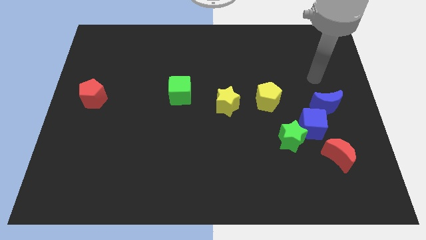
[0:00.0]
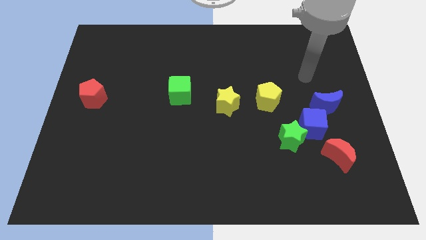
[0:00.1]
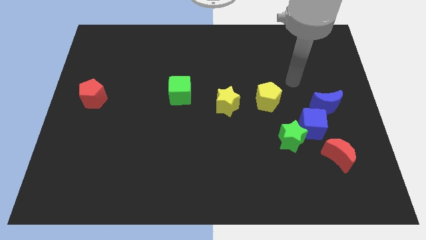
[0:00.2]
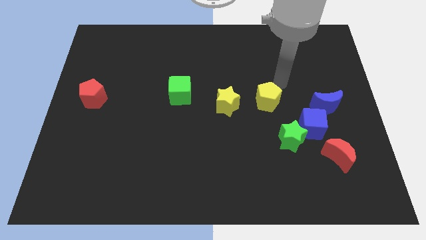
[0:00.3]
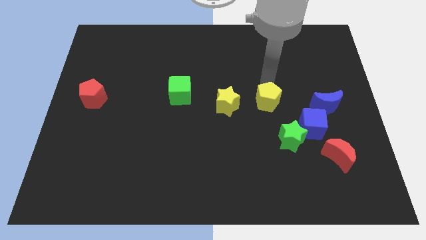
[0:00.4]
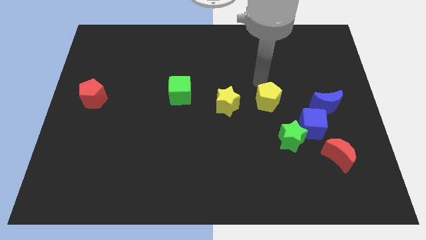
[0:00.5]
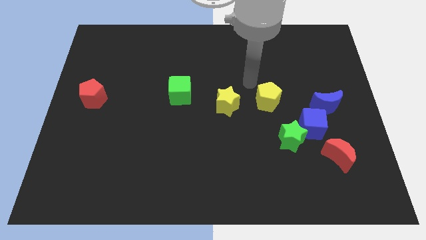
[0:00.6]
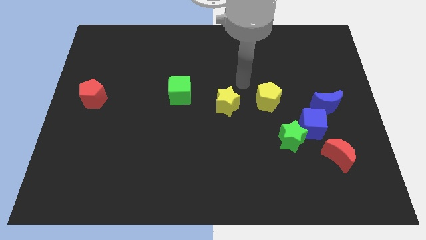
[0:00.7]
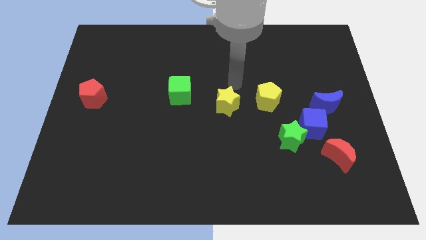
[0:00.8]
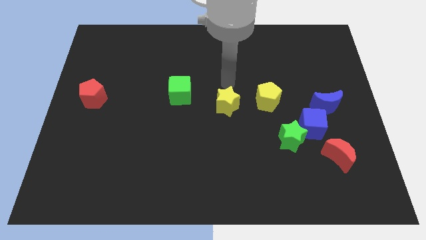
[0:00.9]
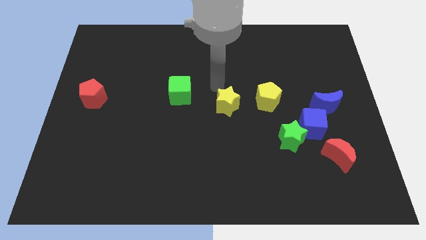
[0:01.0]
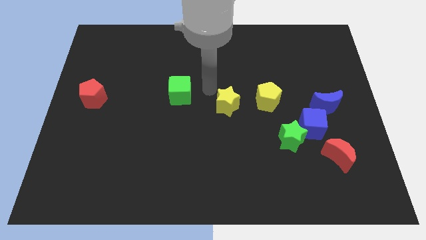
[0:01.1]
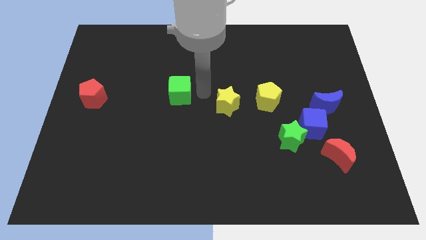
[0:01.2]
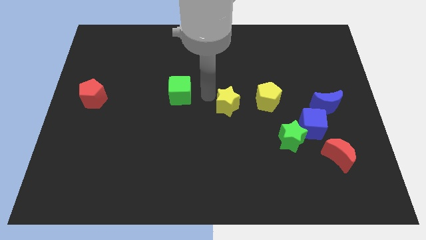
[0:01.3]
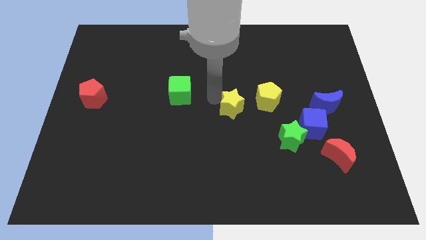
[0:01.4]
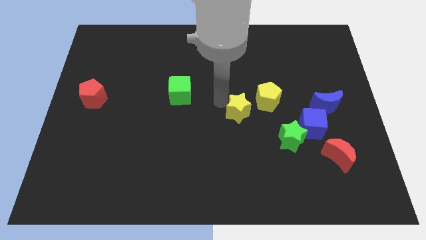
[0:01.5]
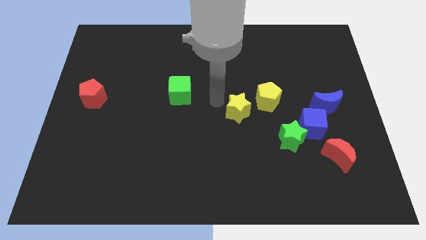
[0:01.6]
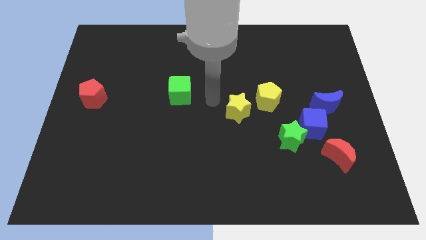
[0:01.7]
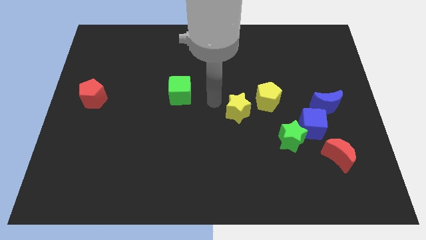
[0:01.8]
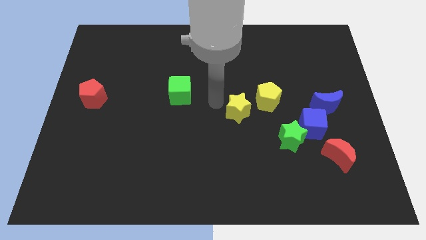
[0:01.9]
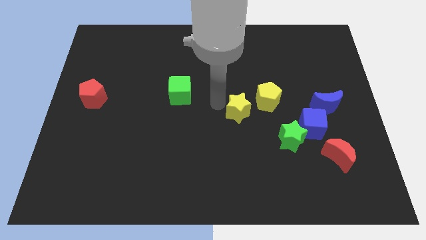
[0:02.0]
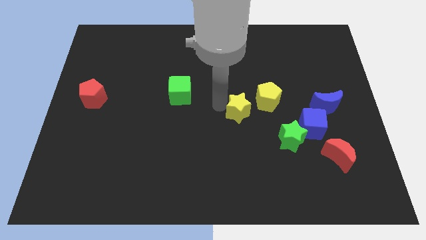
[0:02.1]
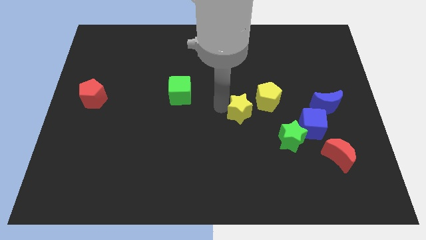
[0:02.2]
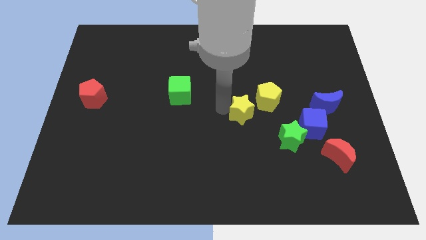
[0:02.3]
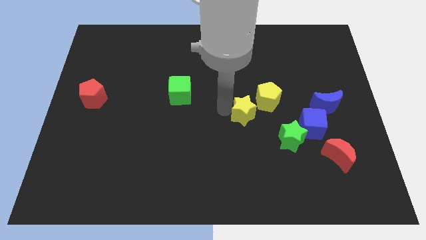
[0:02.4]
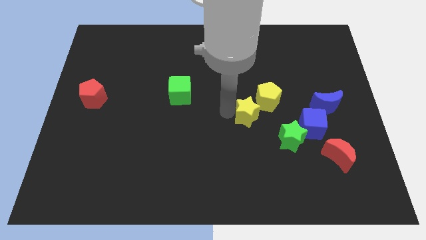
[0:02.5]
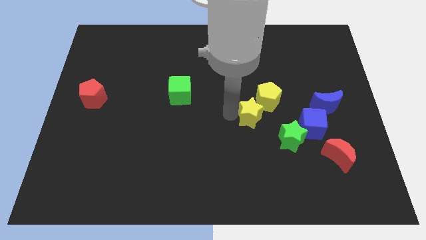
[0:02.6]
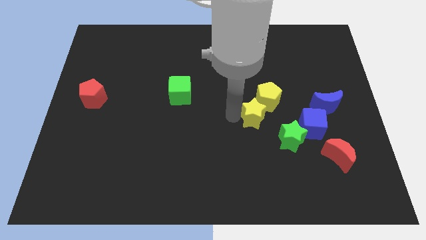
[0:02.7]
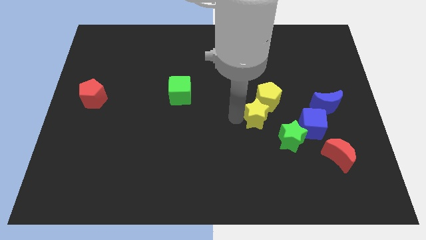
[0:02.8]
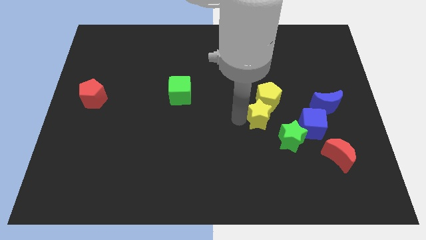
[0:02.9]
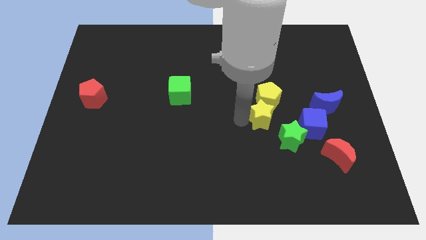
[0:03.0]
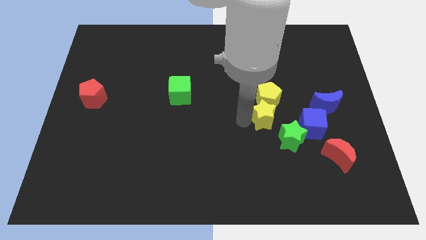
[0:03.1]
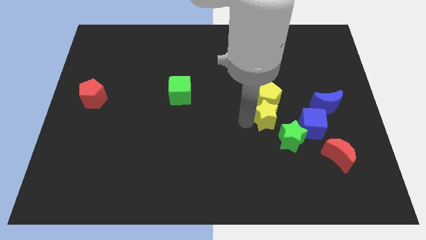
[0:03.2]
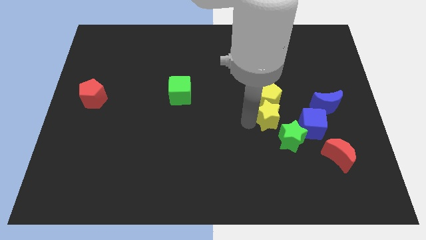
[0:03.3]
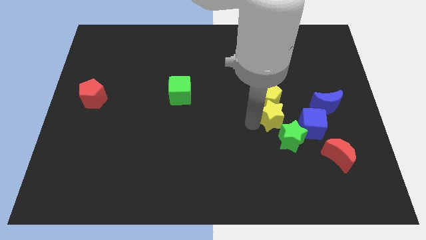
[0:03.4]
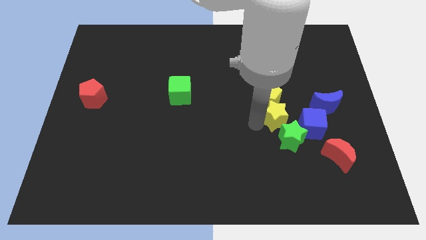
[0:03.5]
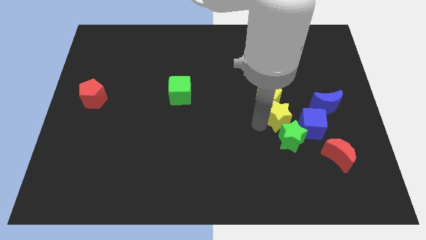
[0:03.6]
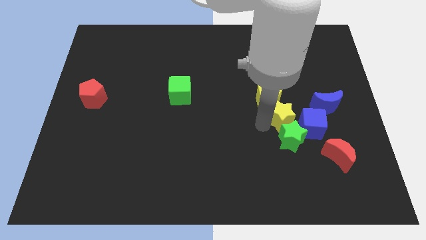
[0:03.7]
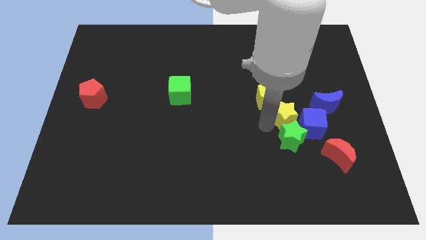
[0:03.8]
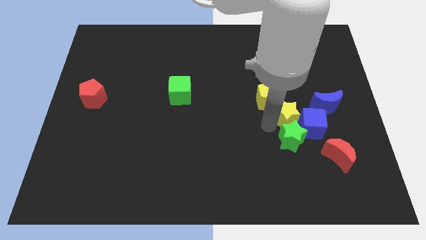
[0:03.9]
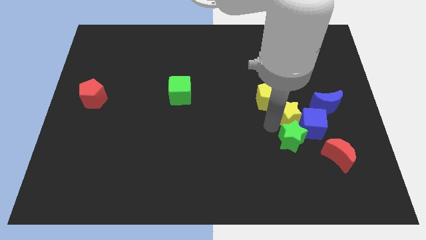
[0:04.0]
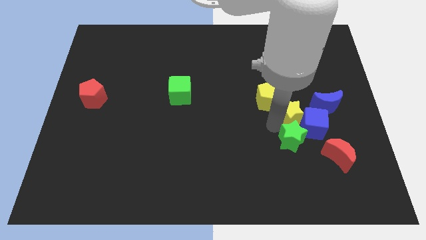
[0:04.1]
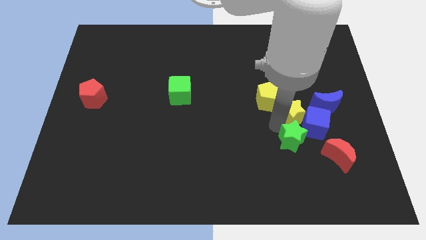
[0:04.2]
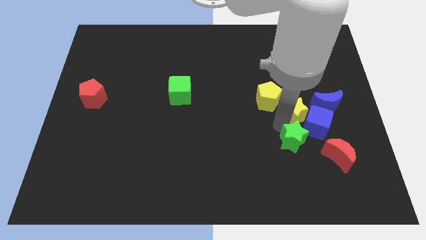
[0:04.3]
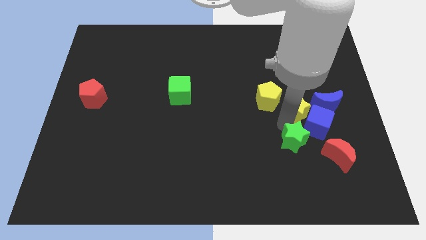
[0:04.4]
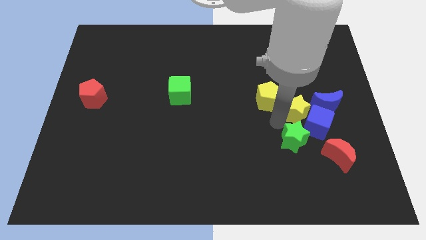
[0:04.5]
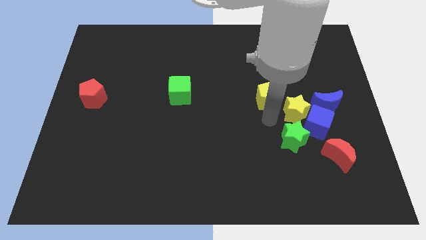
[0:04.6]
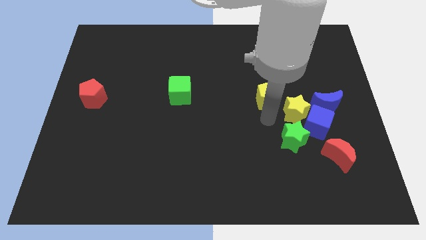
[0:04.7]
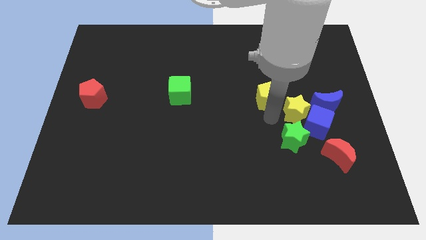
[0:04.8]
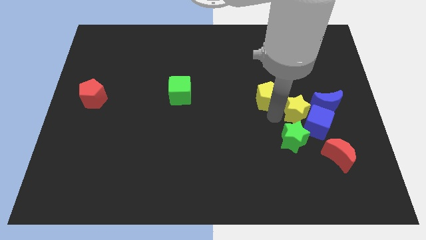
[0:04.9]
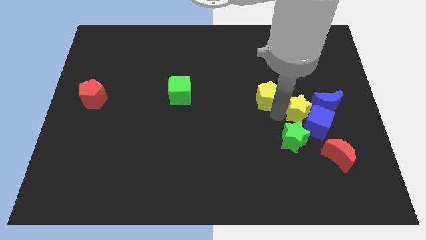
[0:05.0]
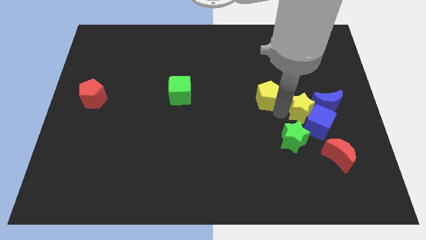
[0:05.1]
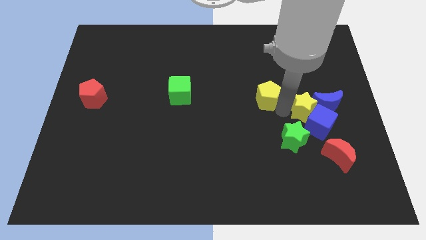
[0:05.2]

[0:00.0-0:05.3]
push the yellow star close to the blue moon
